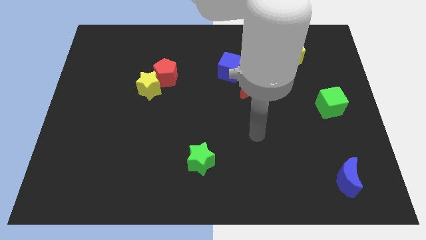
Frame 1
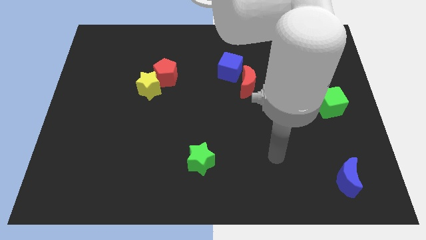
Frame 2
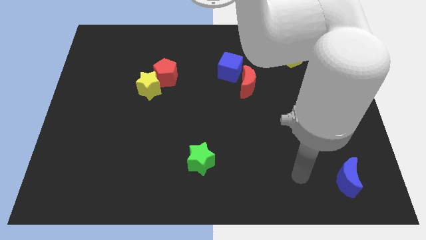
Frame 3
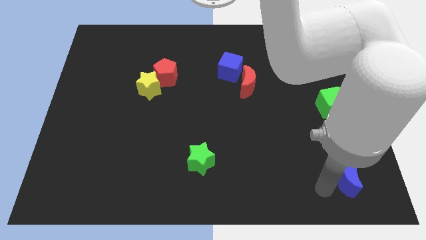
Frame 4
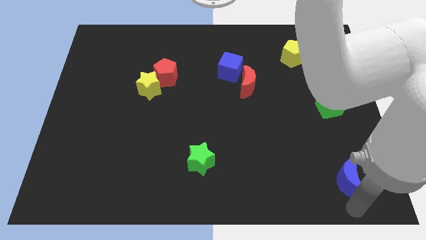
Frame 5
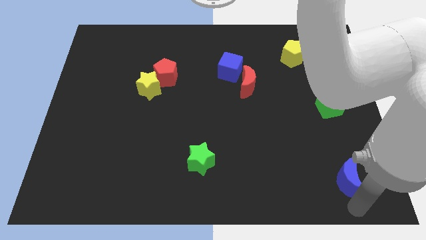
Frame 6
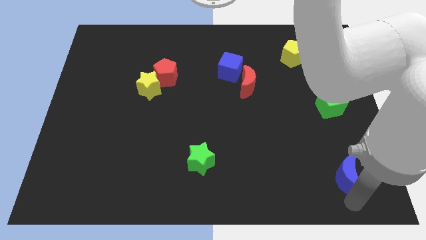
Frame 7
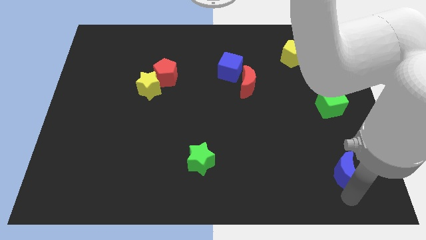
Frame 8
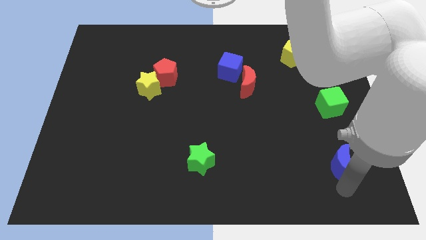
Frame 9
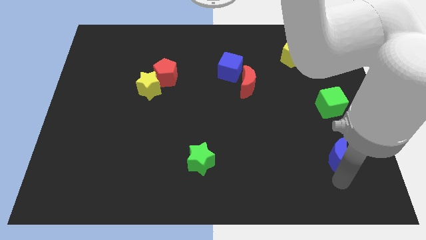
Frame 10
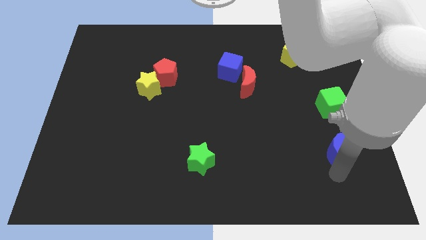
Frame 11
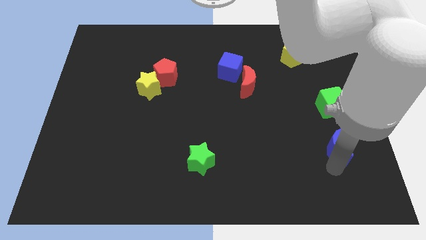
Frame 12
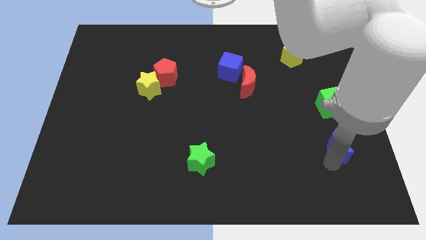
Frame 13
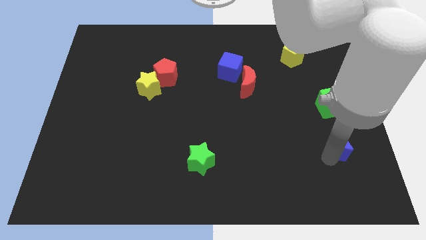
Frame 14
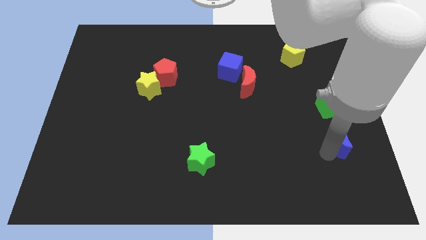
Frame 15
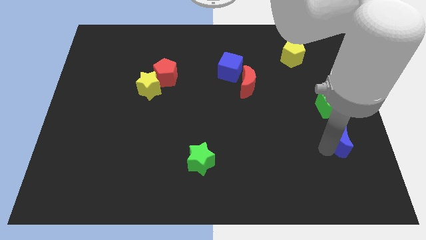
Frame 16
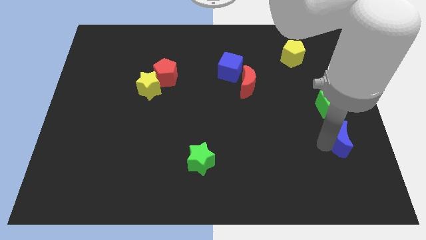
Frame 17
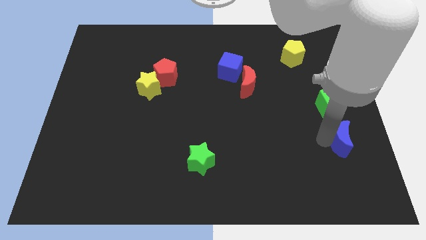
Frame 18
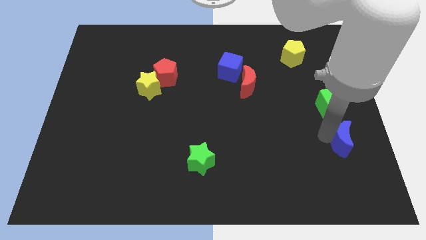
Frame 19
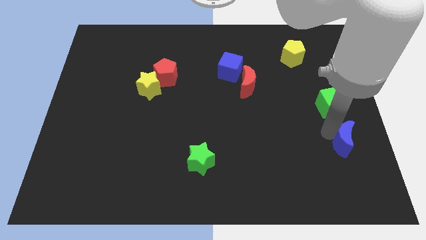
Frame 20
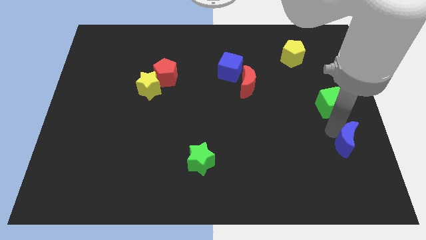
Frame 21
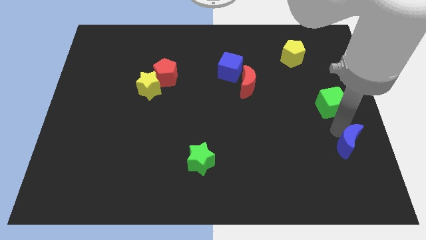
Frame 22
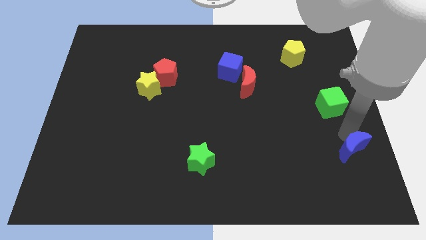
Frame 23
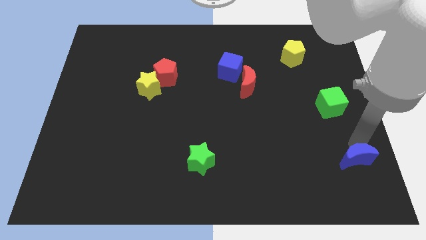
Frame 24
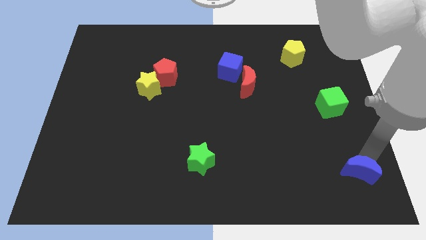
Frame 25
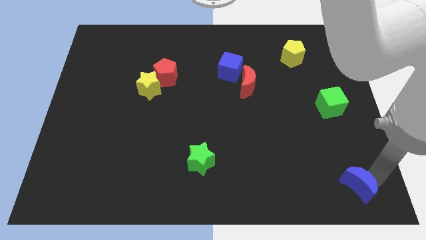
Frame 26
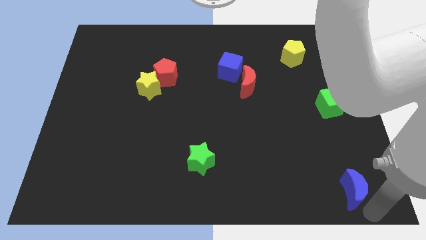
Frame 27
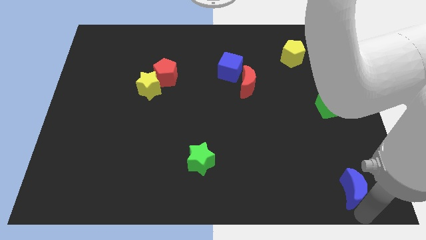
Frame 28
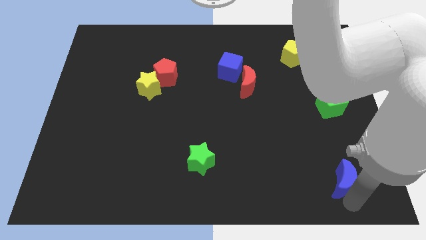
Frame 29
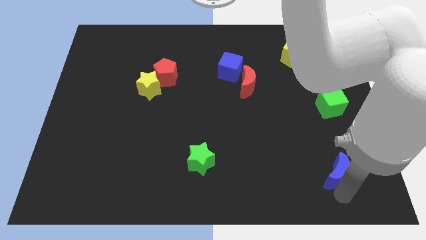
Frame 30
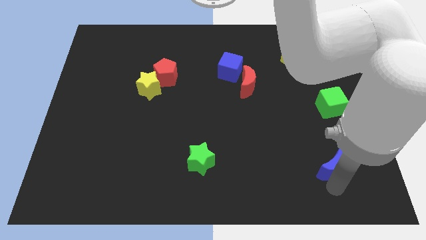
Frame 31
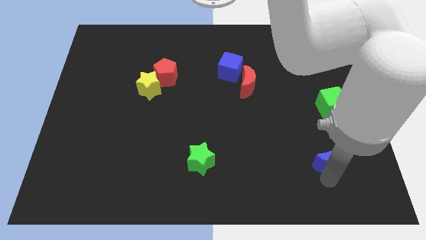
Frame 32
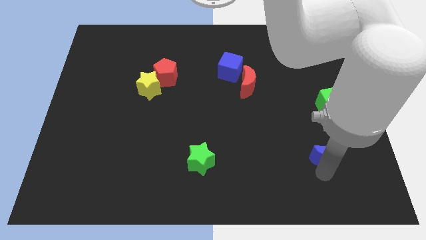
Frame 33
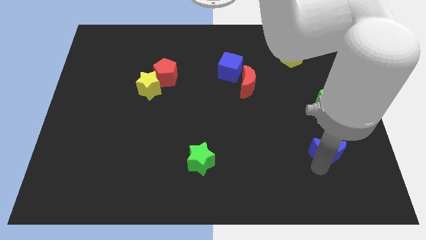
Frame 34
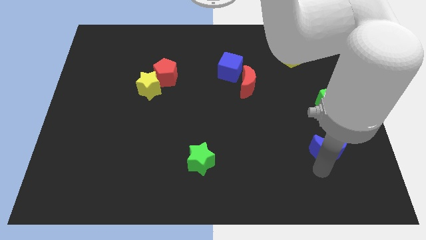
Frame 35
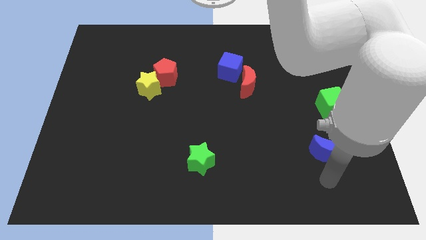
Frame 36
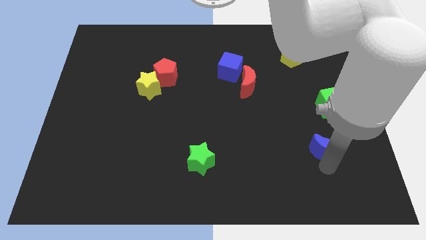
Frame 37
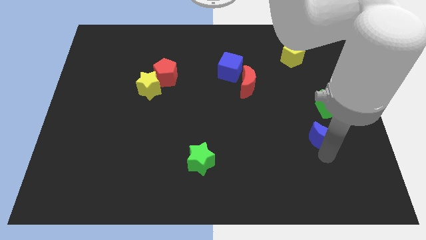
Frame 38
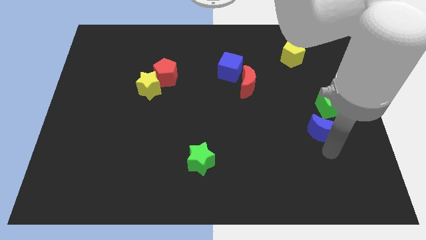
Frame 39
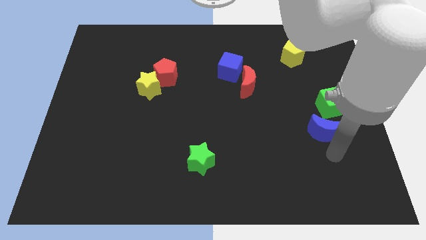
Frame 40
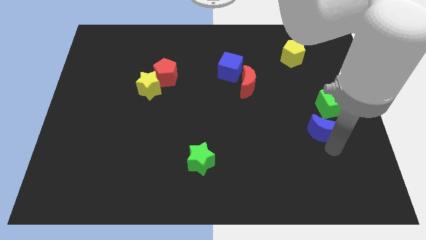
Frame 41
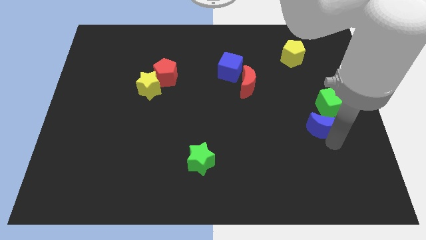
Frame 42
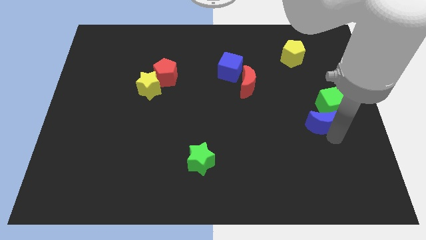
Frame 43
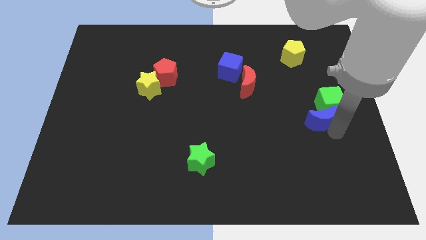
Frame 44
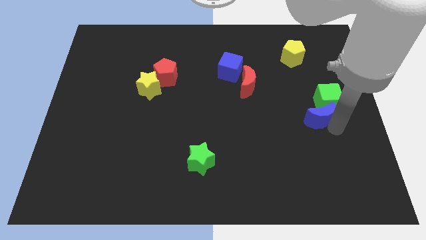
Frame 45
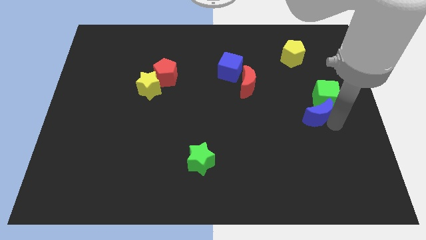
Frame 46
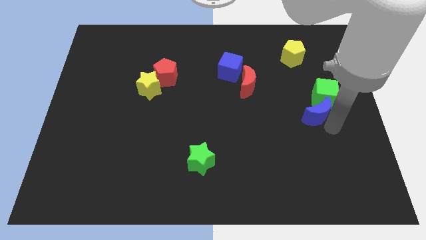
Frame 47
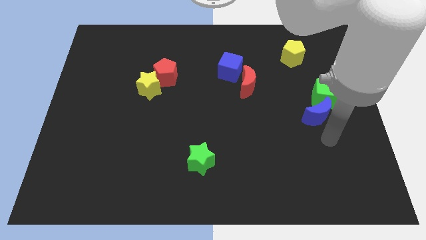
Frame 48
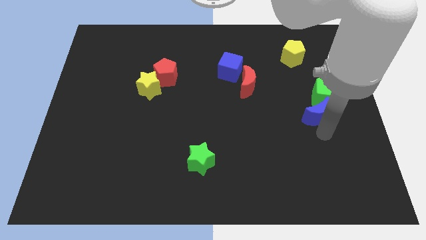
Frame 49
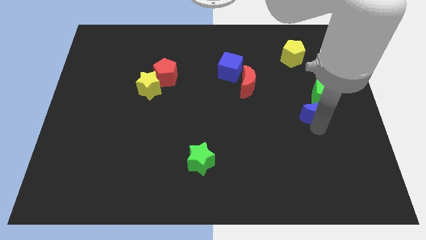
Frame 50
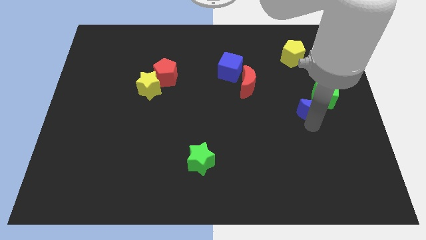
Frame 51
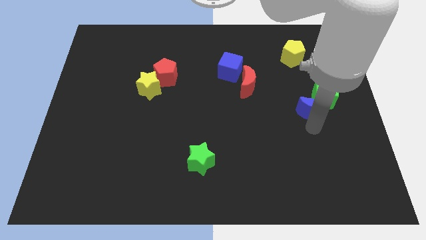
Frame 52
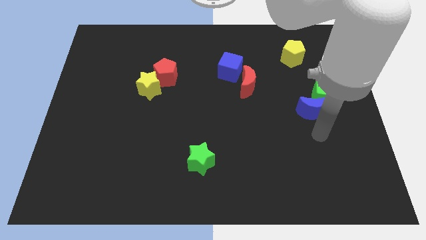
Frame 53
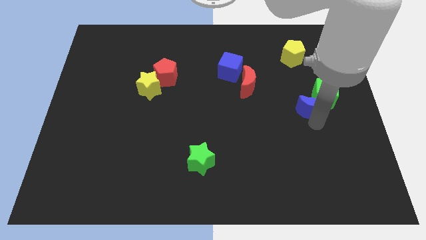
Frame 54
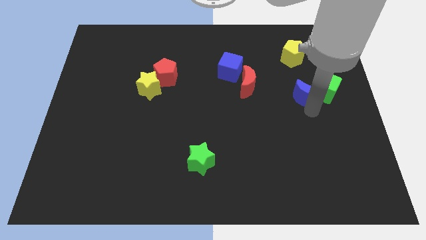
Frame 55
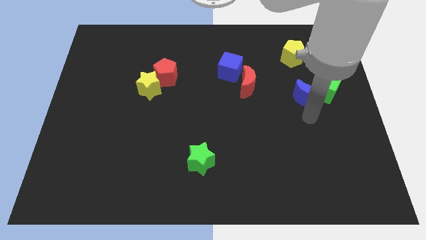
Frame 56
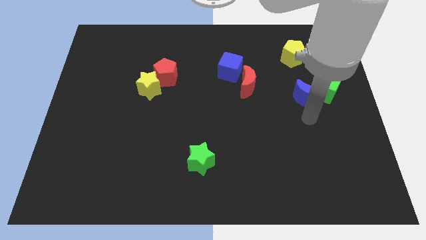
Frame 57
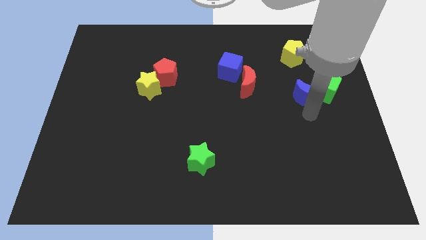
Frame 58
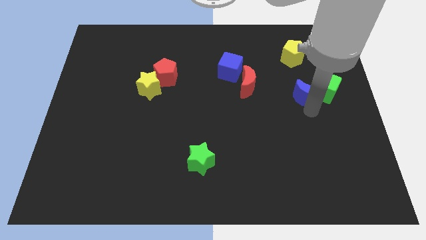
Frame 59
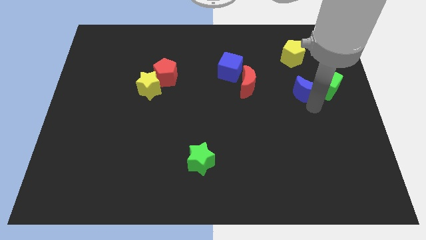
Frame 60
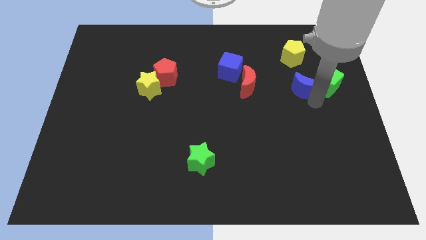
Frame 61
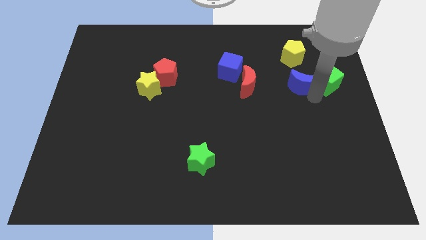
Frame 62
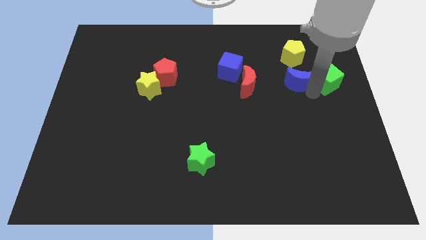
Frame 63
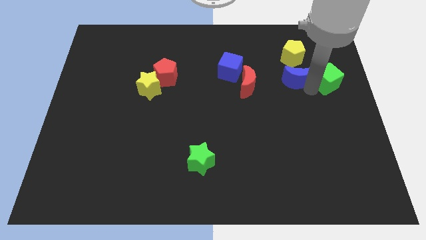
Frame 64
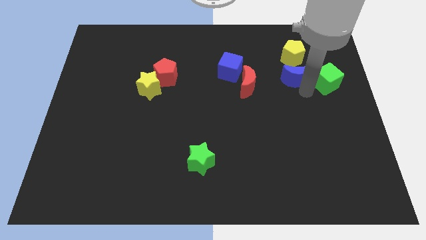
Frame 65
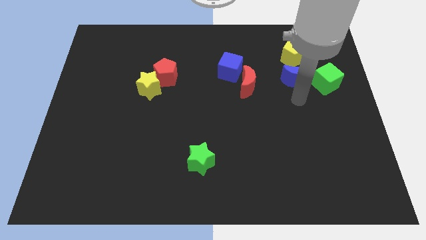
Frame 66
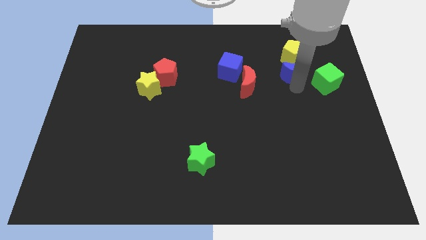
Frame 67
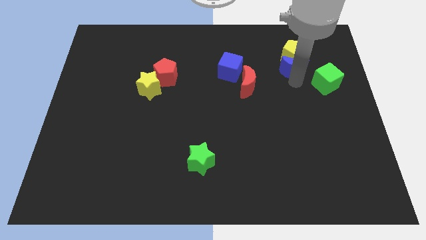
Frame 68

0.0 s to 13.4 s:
slide the blue moon close to the yellow pentagon
